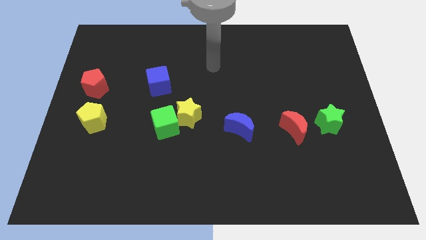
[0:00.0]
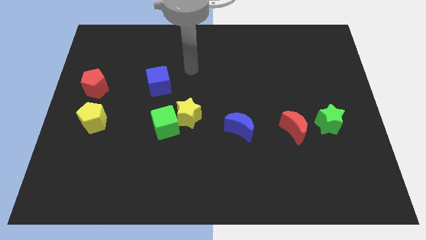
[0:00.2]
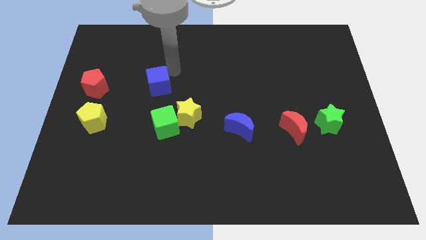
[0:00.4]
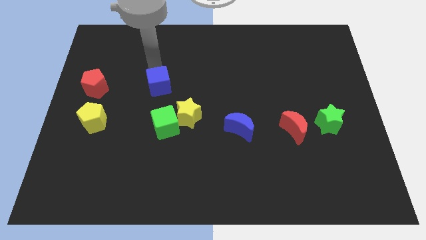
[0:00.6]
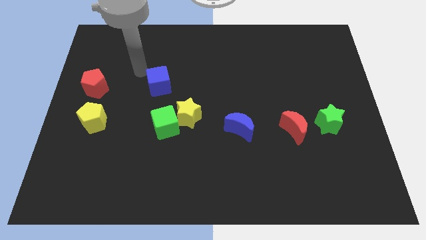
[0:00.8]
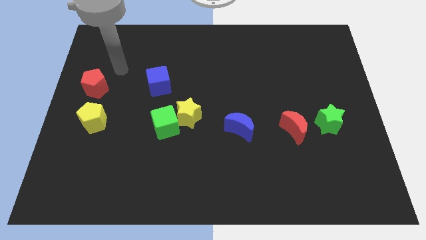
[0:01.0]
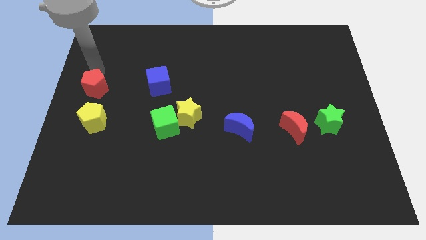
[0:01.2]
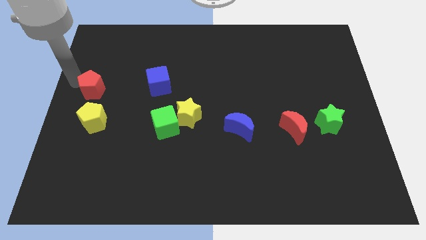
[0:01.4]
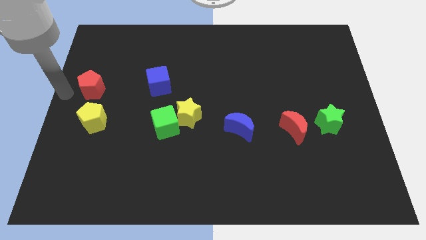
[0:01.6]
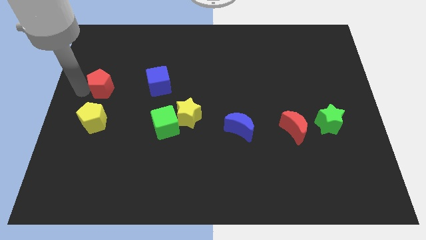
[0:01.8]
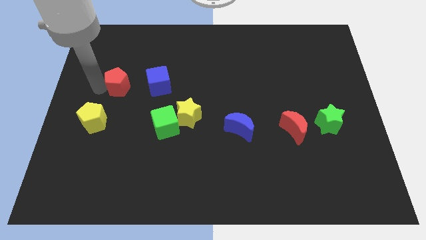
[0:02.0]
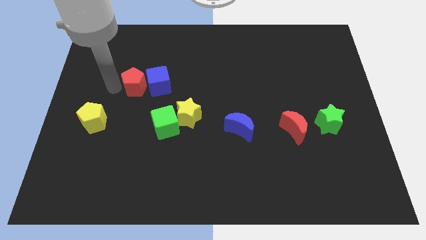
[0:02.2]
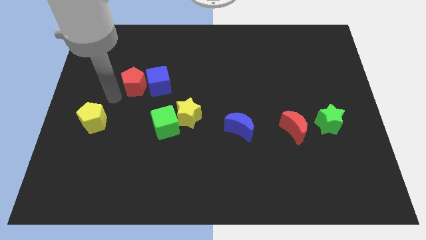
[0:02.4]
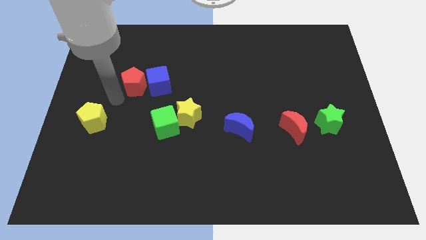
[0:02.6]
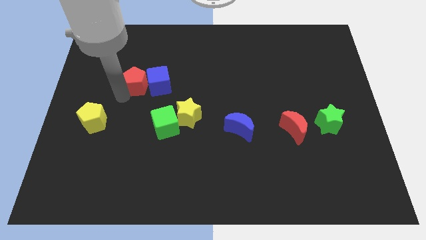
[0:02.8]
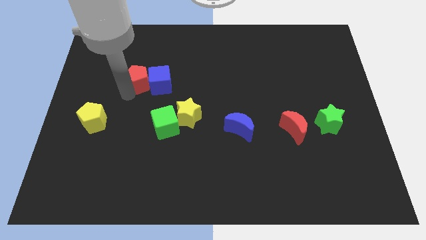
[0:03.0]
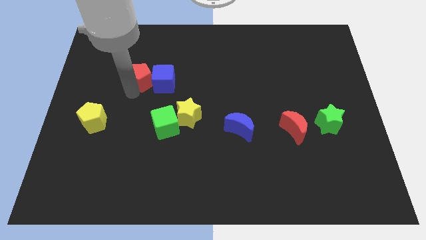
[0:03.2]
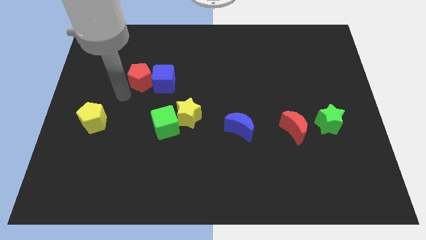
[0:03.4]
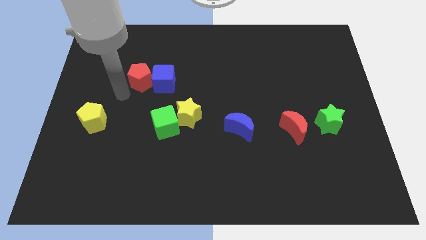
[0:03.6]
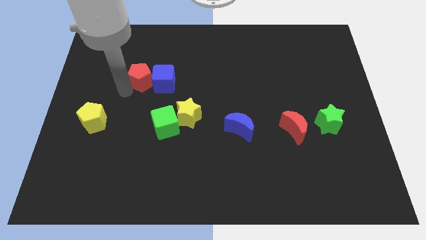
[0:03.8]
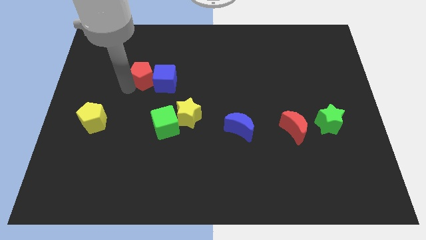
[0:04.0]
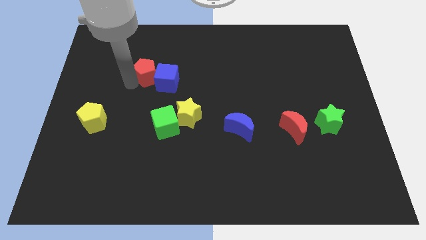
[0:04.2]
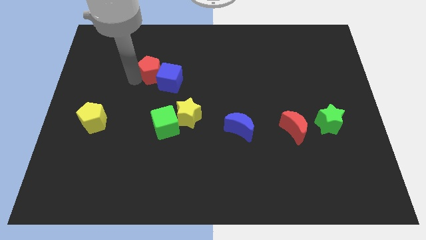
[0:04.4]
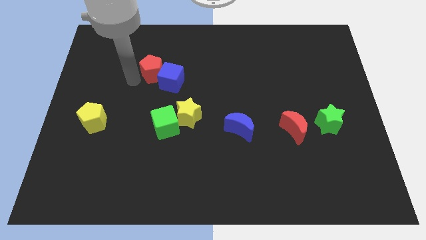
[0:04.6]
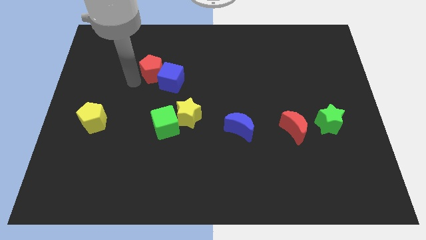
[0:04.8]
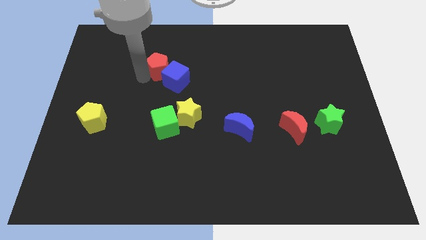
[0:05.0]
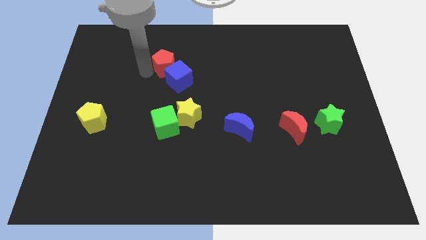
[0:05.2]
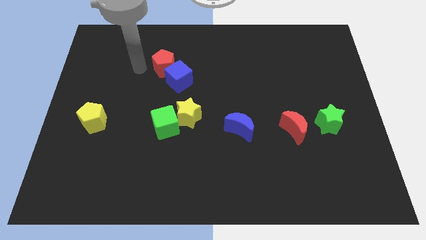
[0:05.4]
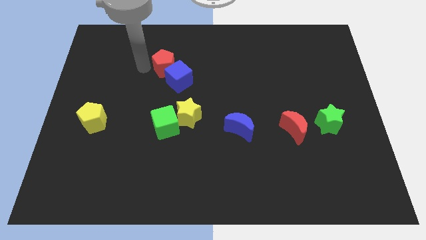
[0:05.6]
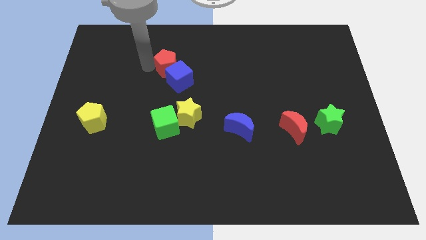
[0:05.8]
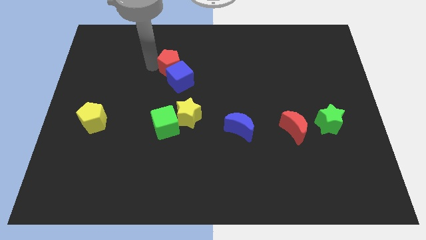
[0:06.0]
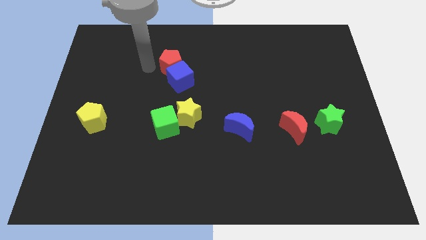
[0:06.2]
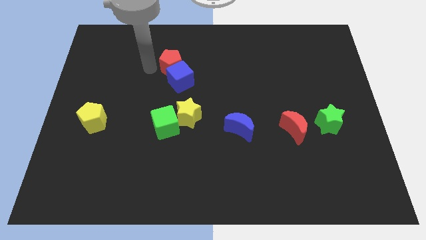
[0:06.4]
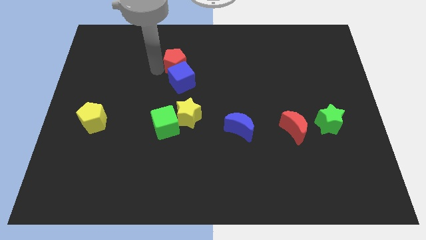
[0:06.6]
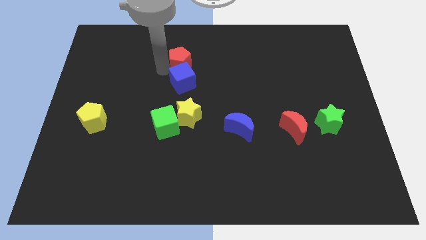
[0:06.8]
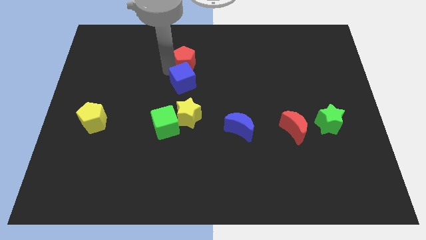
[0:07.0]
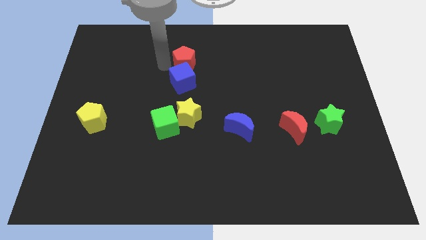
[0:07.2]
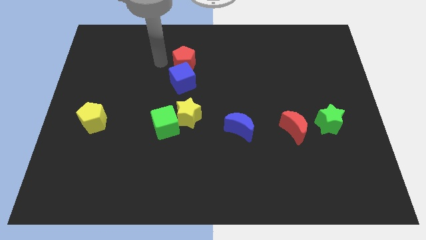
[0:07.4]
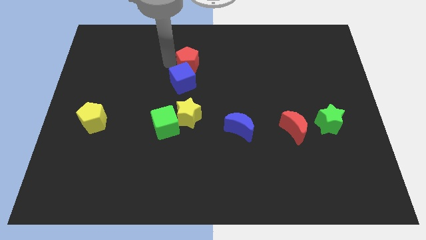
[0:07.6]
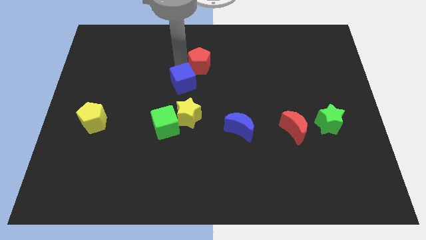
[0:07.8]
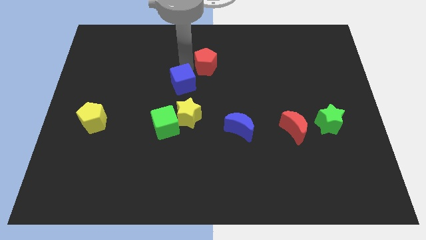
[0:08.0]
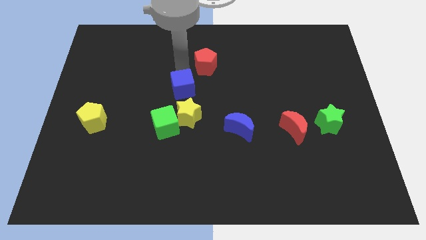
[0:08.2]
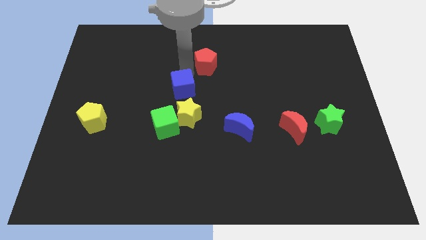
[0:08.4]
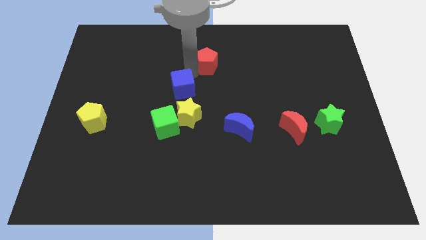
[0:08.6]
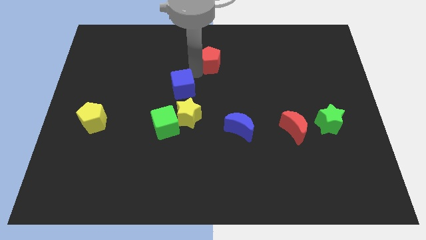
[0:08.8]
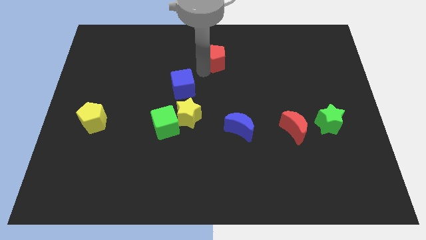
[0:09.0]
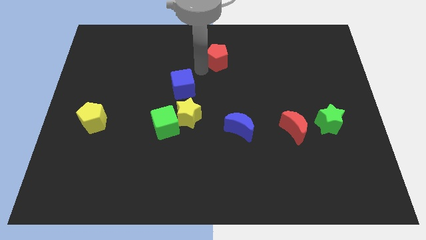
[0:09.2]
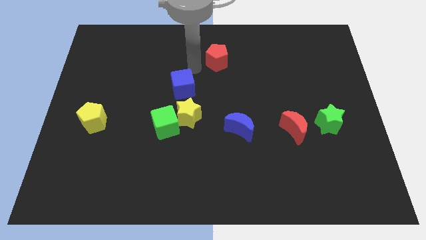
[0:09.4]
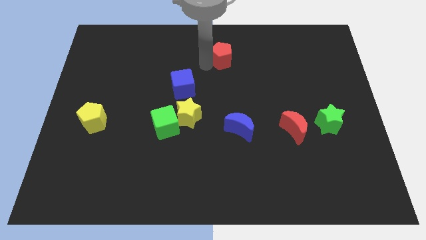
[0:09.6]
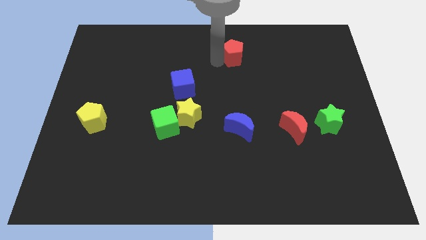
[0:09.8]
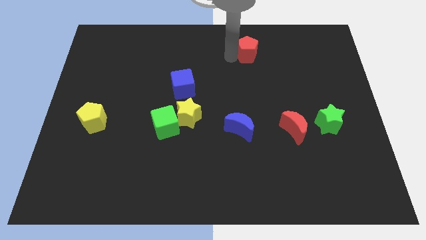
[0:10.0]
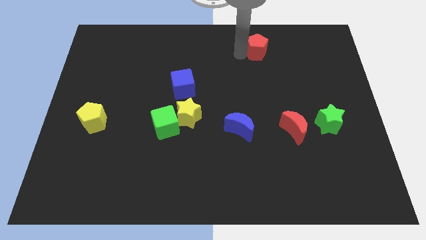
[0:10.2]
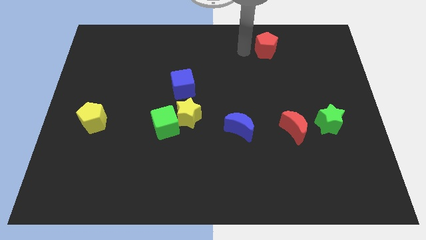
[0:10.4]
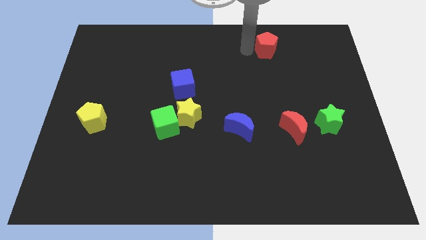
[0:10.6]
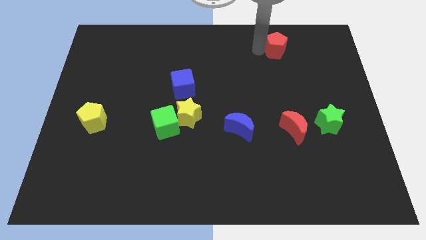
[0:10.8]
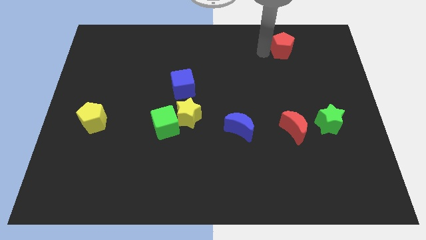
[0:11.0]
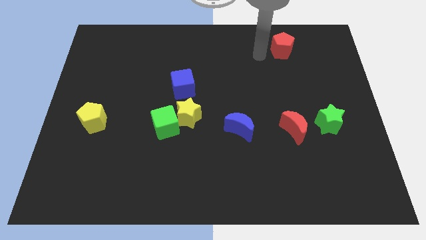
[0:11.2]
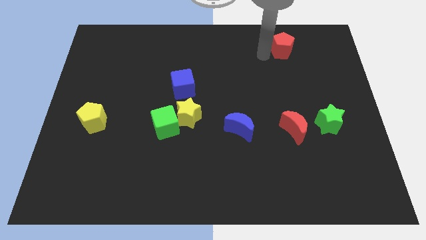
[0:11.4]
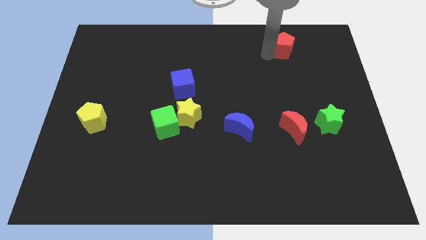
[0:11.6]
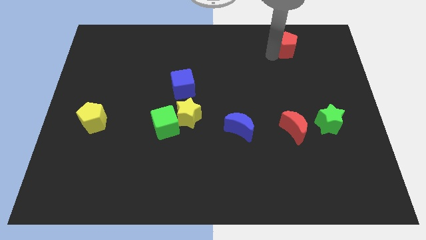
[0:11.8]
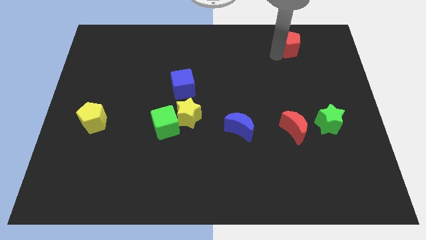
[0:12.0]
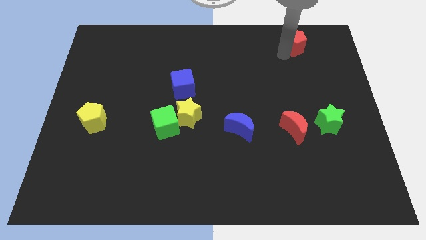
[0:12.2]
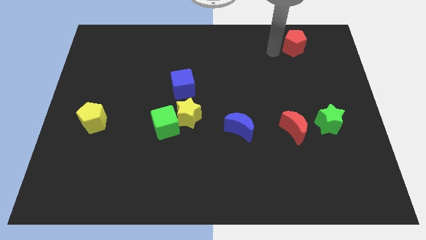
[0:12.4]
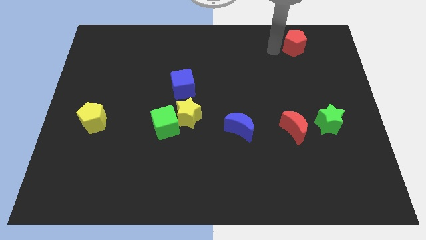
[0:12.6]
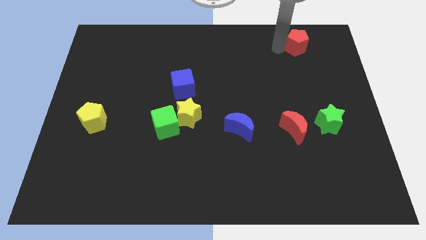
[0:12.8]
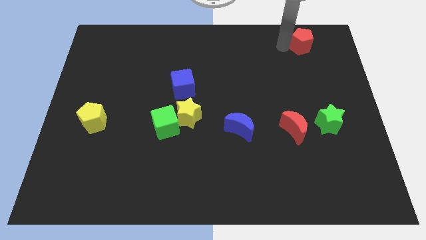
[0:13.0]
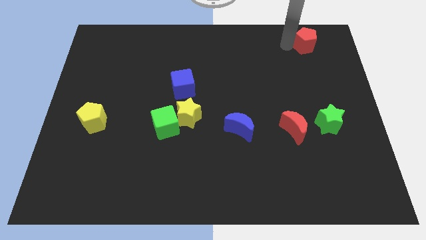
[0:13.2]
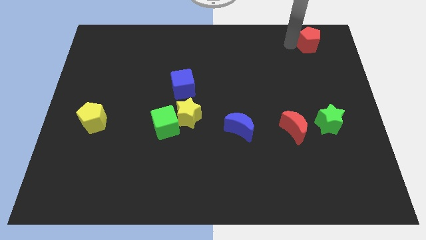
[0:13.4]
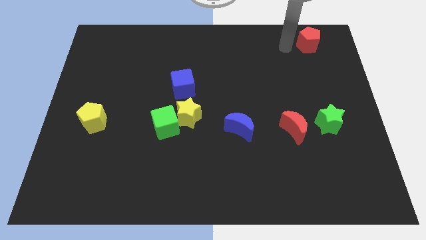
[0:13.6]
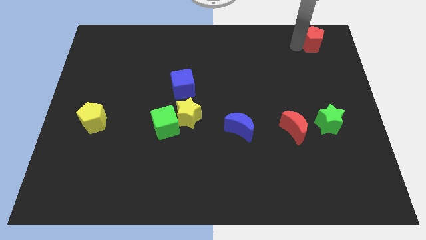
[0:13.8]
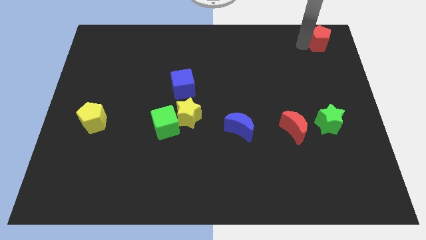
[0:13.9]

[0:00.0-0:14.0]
put the red pentagon to the top right
